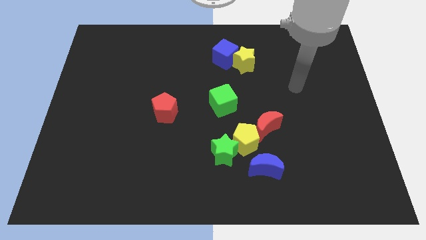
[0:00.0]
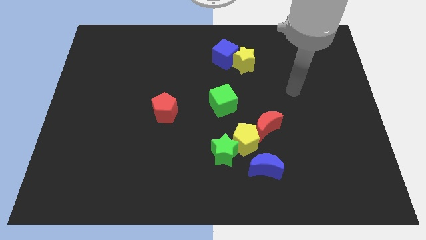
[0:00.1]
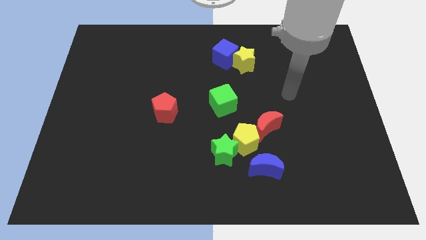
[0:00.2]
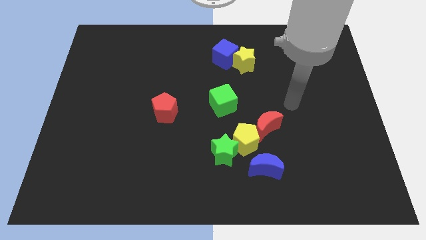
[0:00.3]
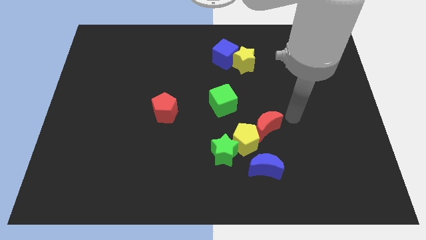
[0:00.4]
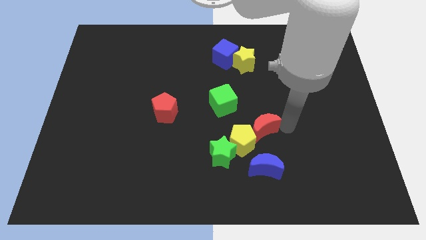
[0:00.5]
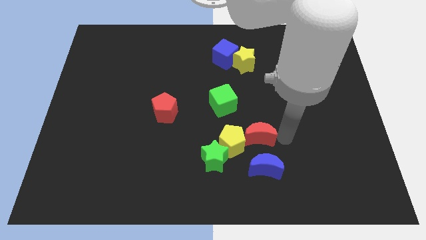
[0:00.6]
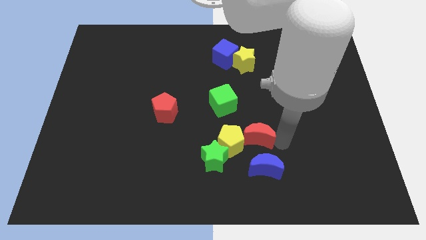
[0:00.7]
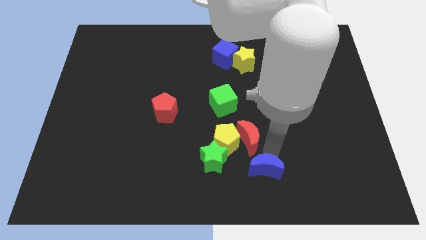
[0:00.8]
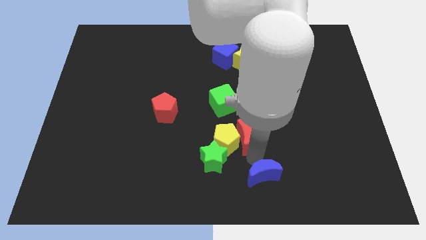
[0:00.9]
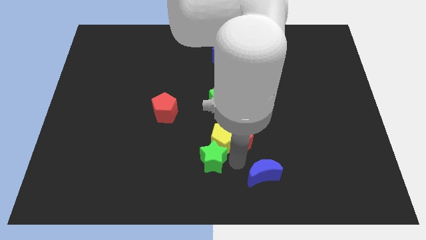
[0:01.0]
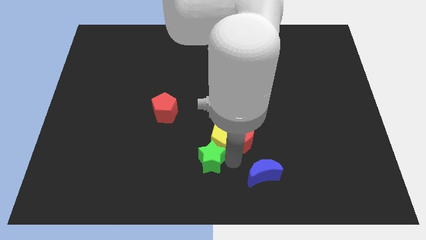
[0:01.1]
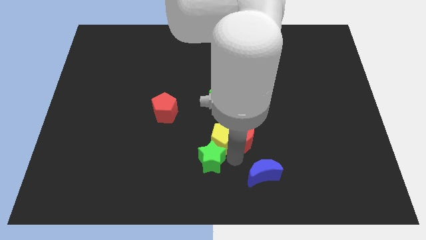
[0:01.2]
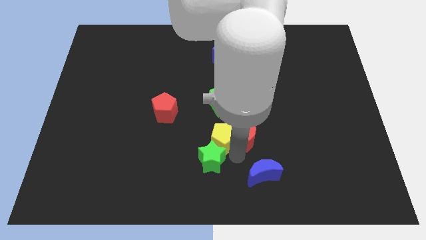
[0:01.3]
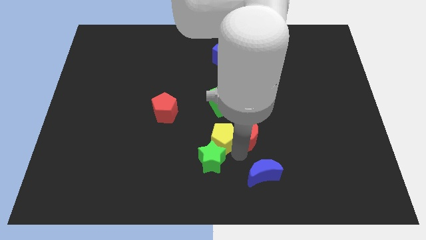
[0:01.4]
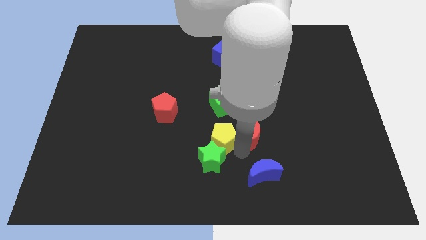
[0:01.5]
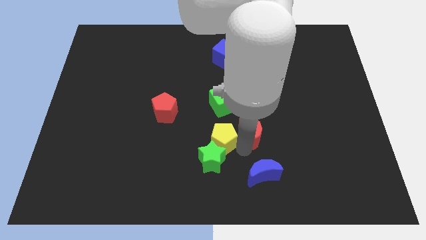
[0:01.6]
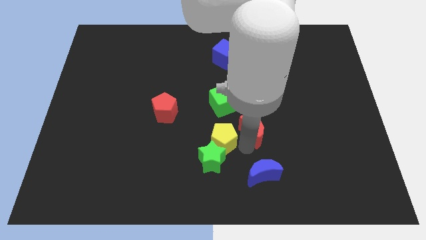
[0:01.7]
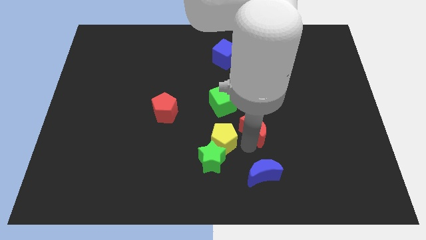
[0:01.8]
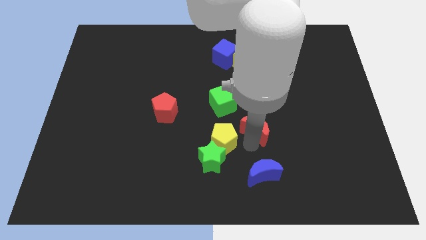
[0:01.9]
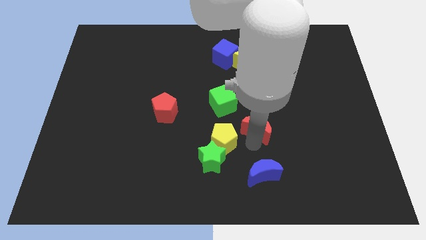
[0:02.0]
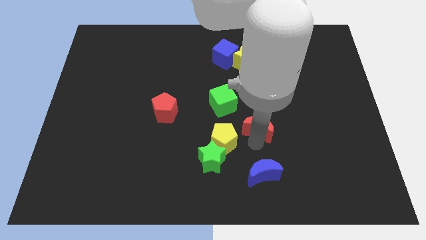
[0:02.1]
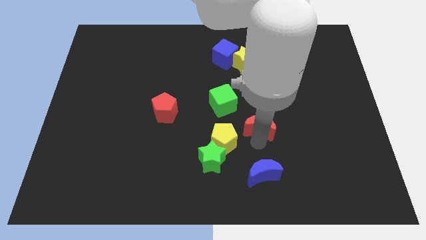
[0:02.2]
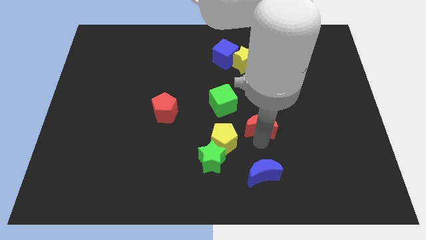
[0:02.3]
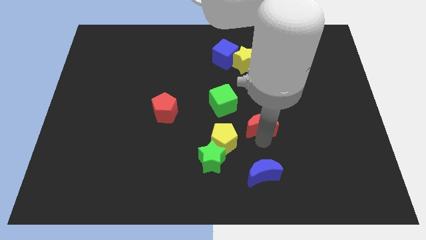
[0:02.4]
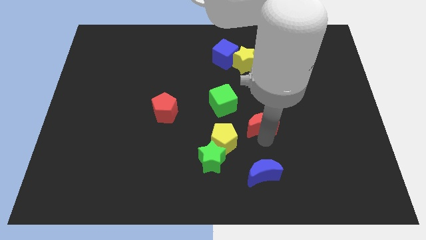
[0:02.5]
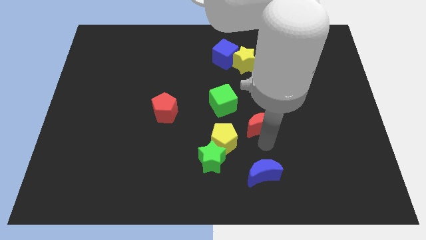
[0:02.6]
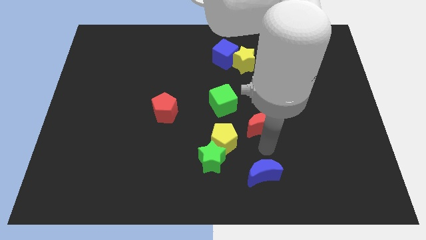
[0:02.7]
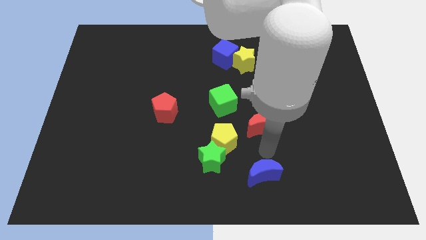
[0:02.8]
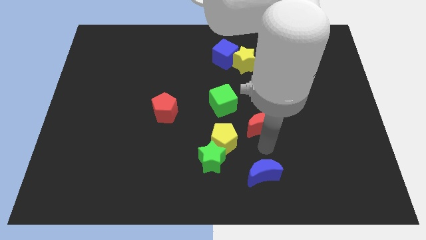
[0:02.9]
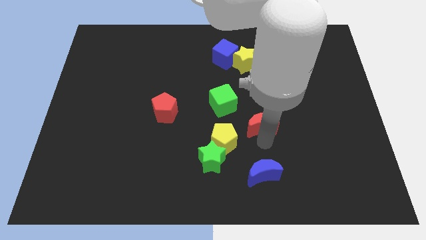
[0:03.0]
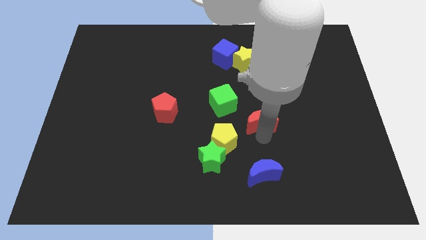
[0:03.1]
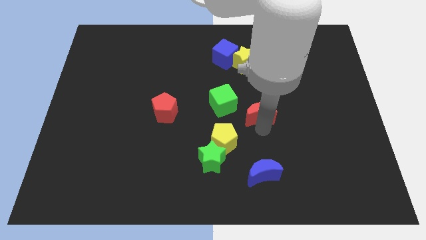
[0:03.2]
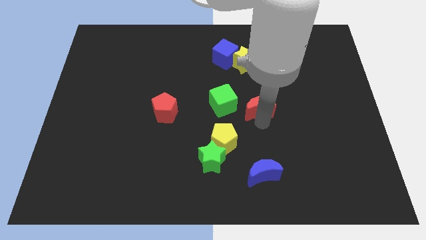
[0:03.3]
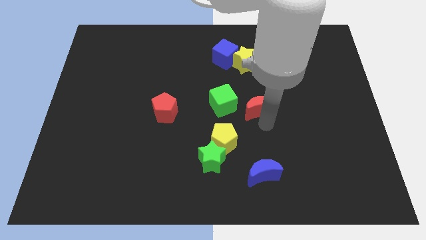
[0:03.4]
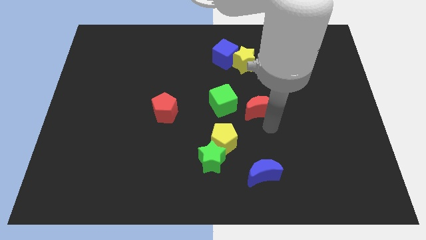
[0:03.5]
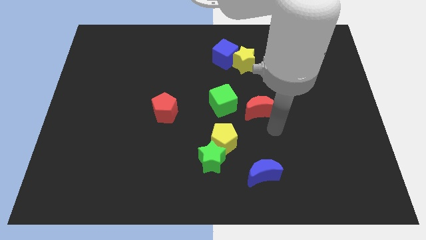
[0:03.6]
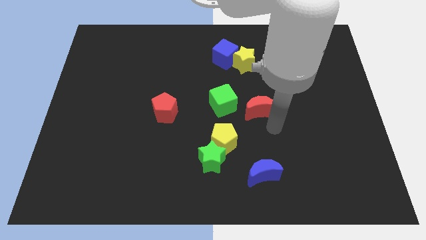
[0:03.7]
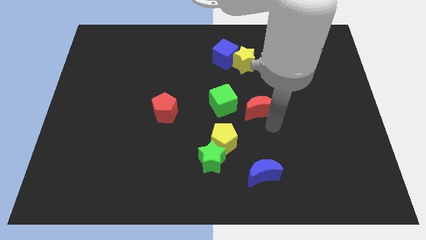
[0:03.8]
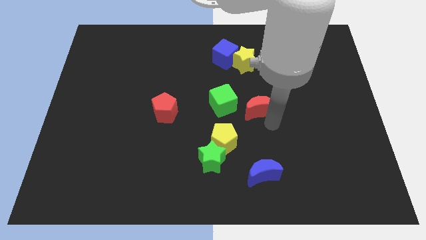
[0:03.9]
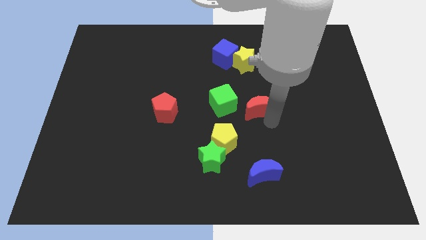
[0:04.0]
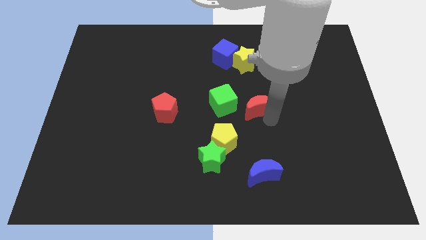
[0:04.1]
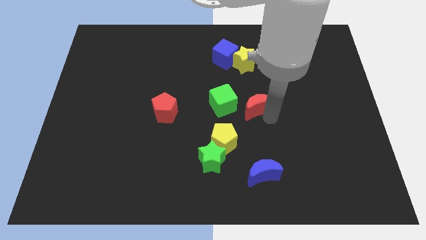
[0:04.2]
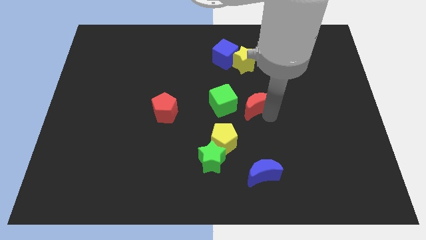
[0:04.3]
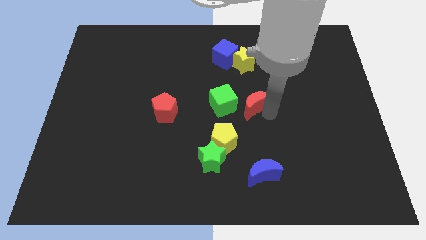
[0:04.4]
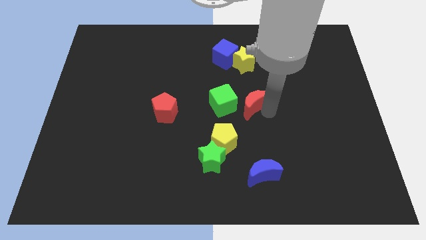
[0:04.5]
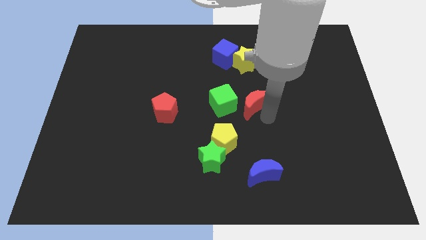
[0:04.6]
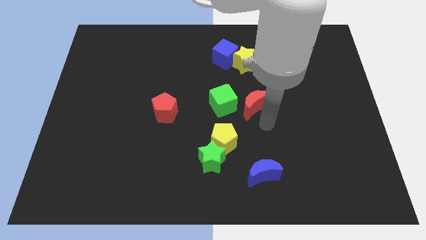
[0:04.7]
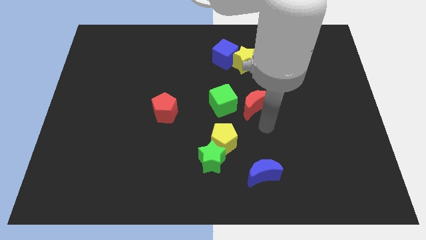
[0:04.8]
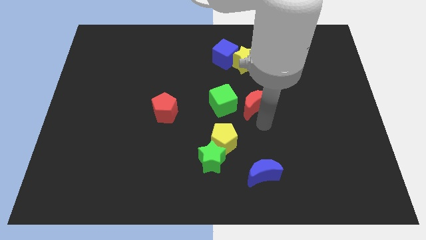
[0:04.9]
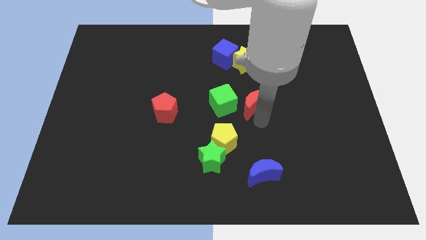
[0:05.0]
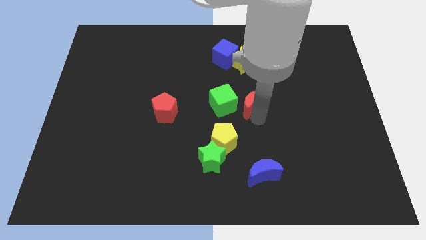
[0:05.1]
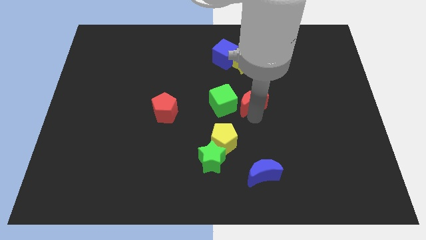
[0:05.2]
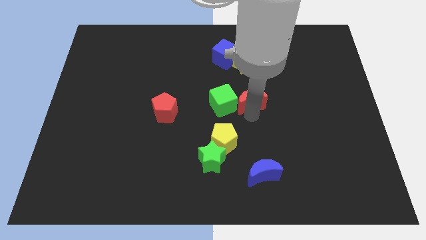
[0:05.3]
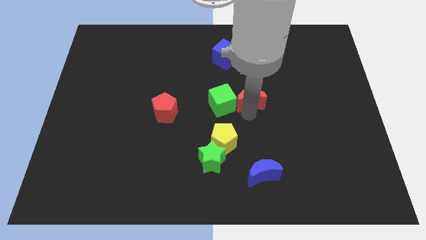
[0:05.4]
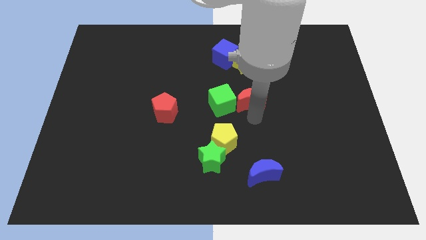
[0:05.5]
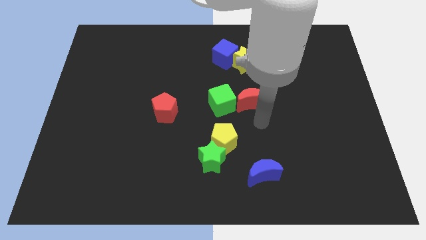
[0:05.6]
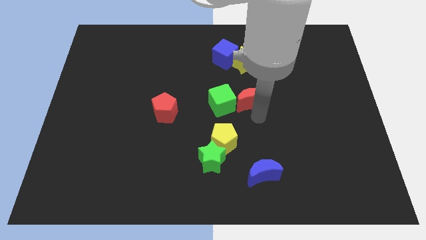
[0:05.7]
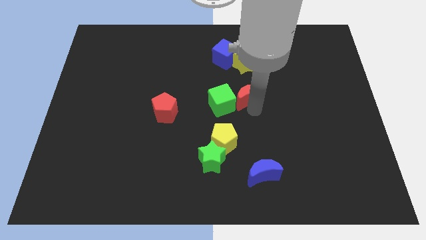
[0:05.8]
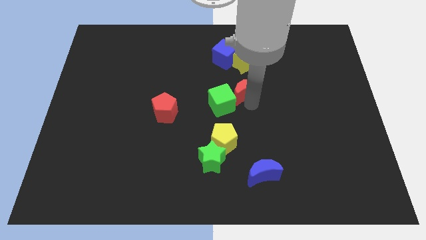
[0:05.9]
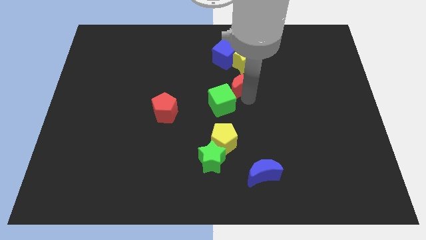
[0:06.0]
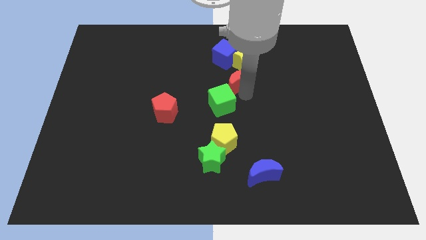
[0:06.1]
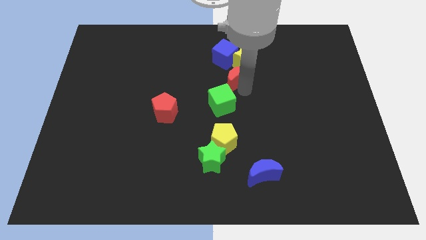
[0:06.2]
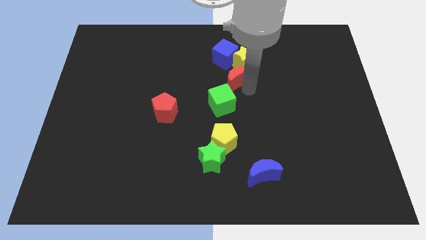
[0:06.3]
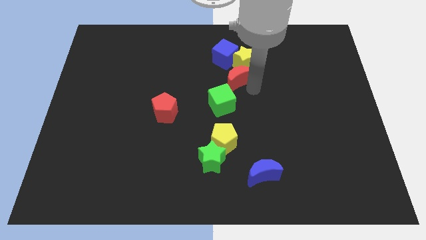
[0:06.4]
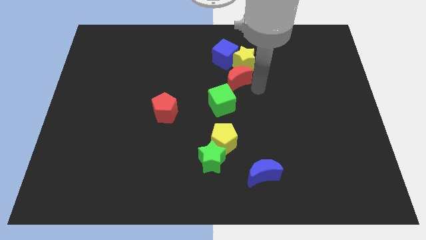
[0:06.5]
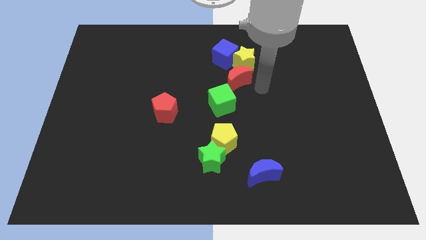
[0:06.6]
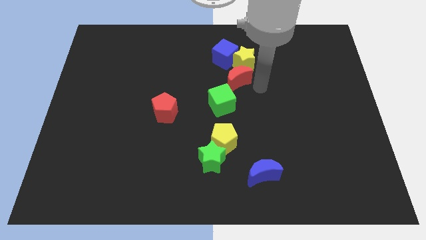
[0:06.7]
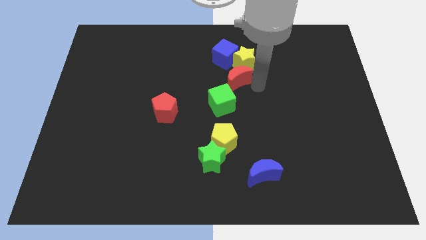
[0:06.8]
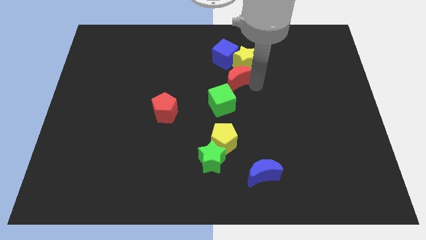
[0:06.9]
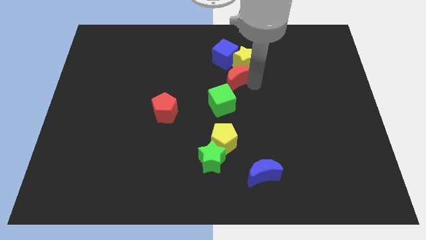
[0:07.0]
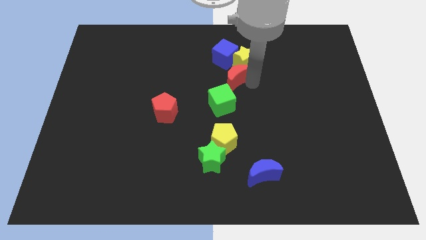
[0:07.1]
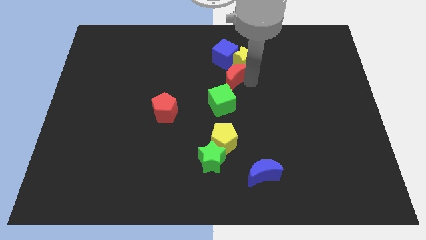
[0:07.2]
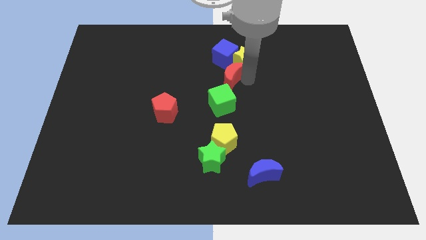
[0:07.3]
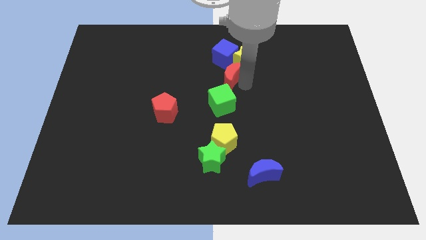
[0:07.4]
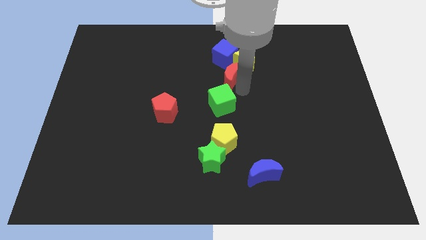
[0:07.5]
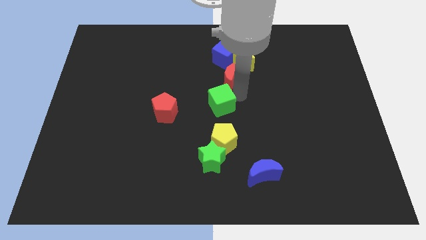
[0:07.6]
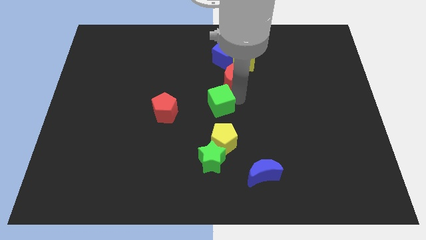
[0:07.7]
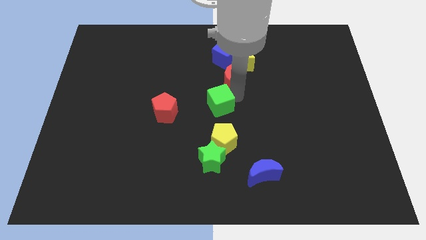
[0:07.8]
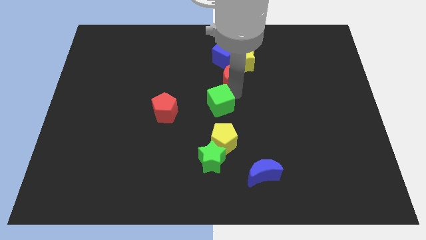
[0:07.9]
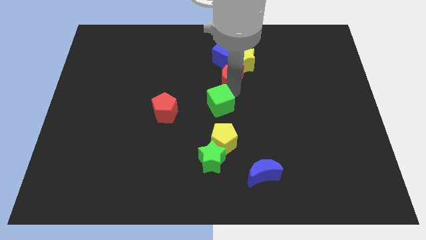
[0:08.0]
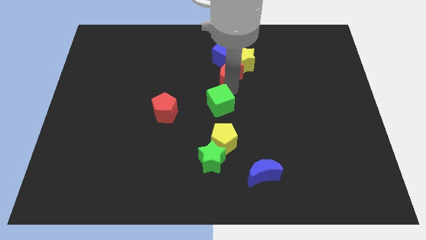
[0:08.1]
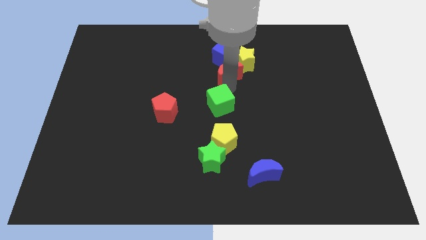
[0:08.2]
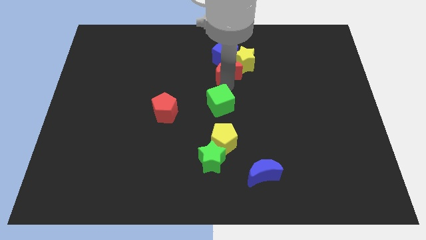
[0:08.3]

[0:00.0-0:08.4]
put the red moon close to the blue cube
